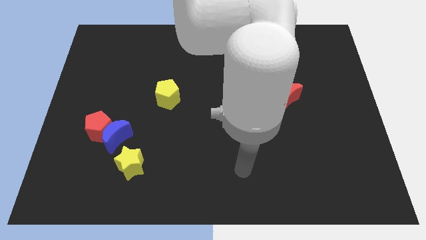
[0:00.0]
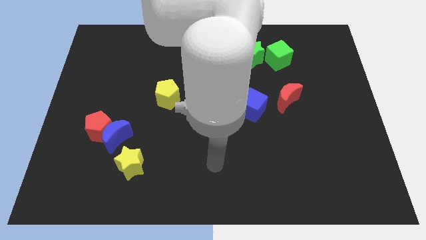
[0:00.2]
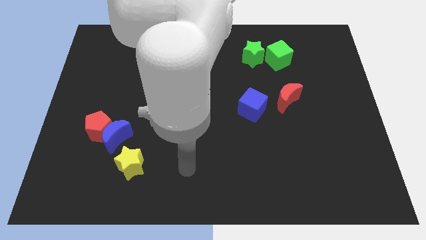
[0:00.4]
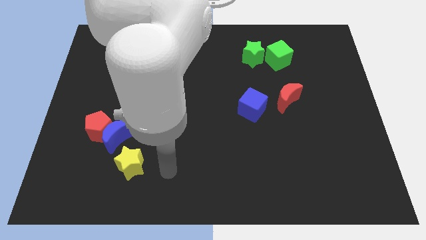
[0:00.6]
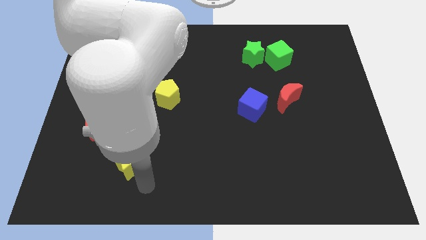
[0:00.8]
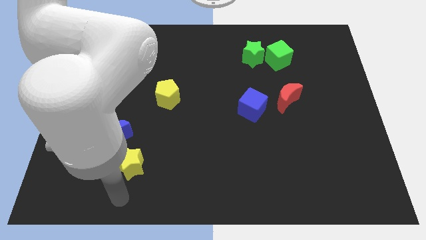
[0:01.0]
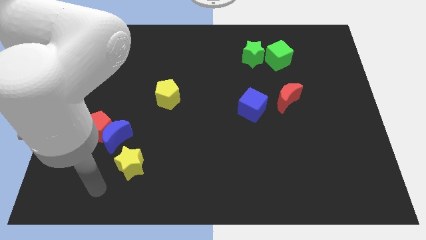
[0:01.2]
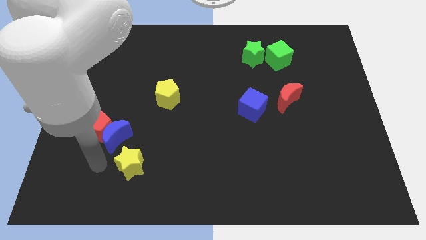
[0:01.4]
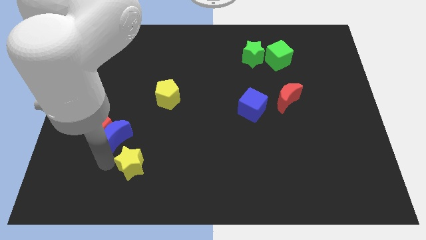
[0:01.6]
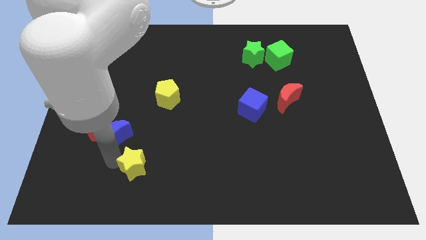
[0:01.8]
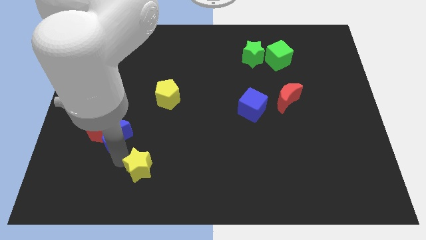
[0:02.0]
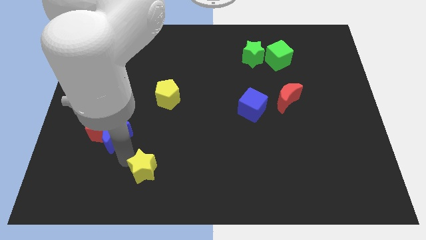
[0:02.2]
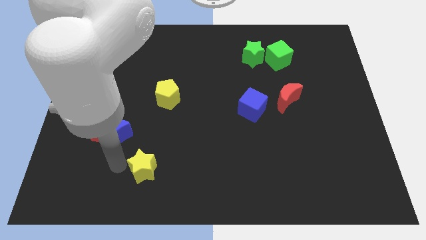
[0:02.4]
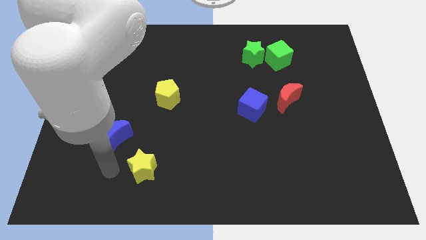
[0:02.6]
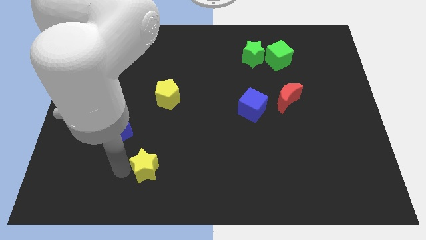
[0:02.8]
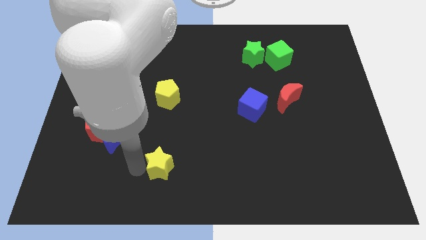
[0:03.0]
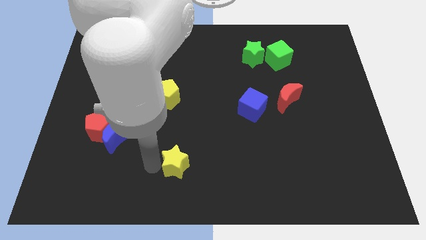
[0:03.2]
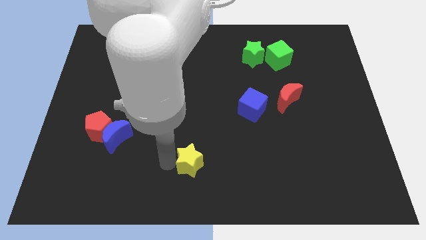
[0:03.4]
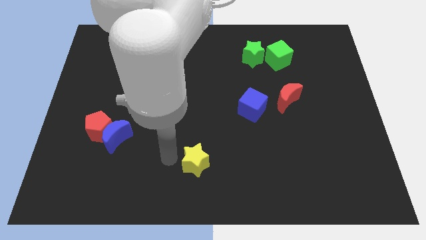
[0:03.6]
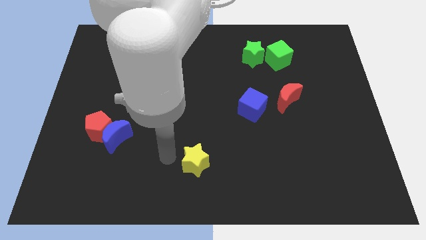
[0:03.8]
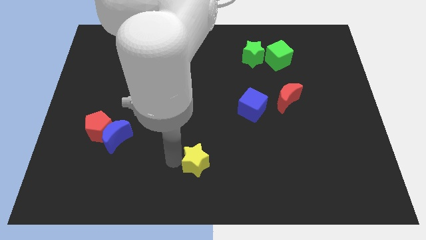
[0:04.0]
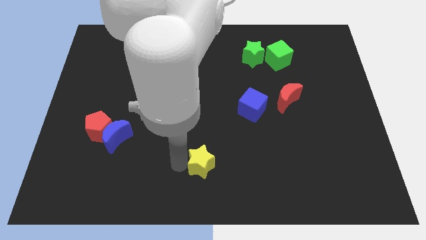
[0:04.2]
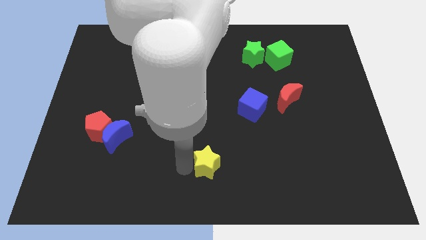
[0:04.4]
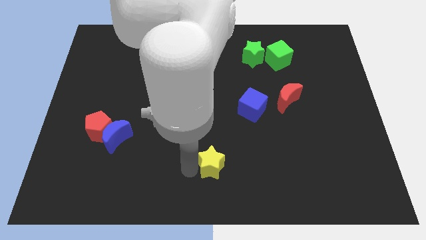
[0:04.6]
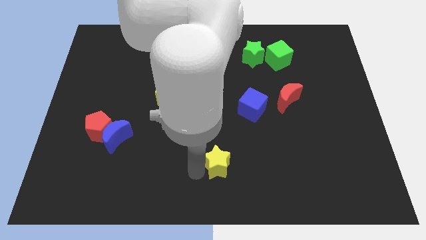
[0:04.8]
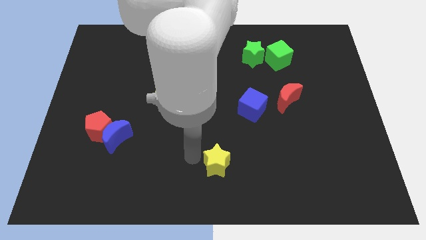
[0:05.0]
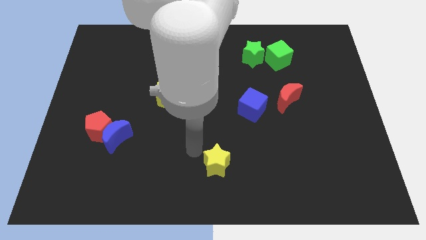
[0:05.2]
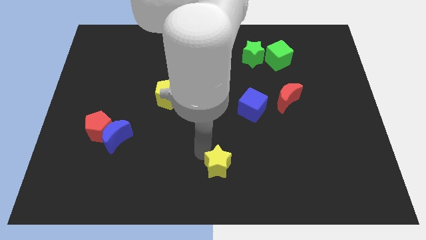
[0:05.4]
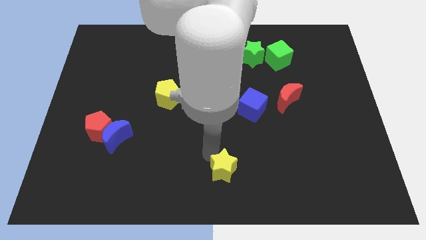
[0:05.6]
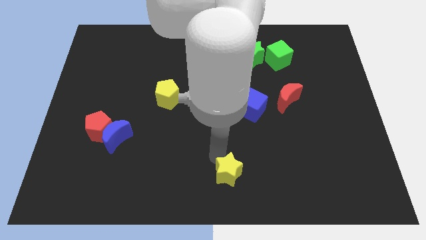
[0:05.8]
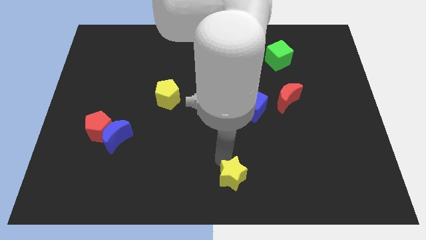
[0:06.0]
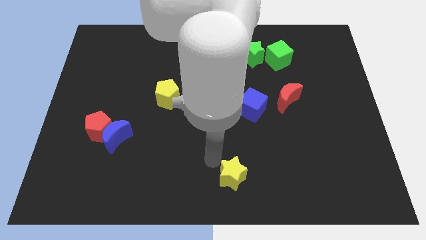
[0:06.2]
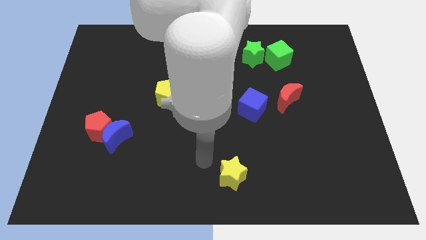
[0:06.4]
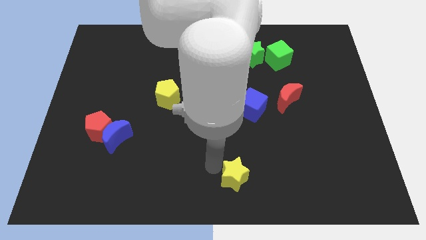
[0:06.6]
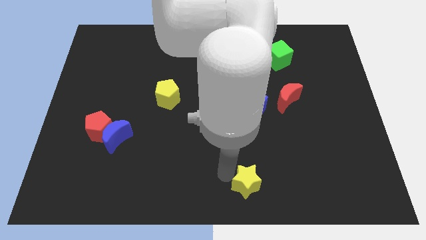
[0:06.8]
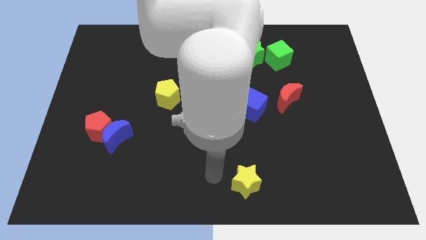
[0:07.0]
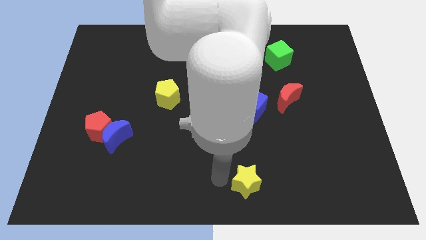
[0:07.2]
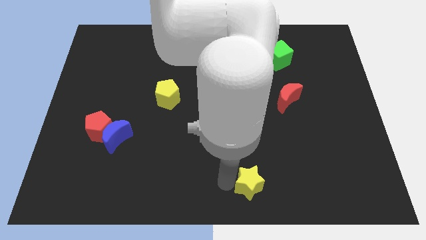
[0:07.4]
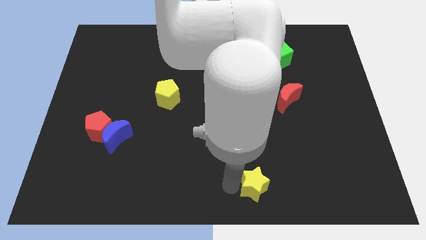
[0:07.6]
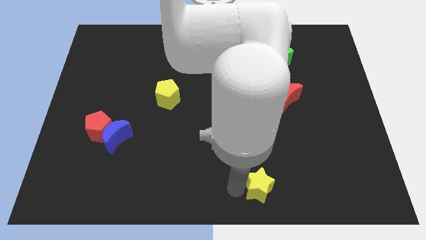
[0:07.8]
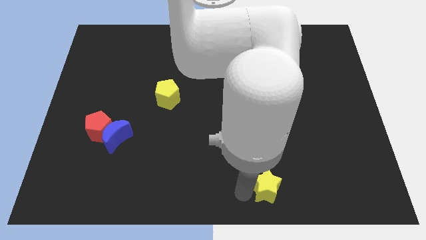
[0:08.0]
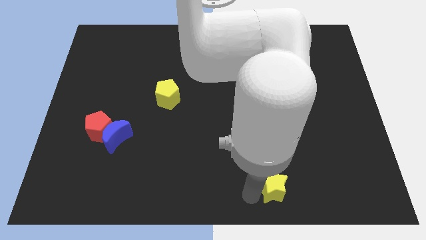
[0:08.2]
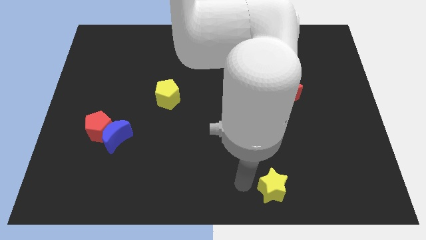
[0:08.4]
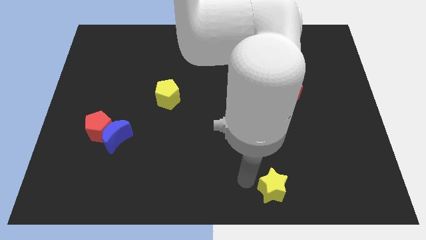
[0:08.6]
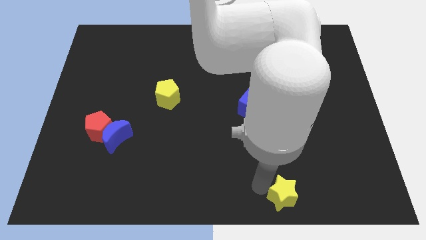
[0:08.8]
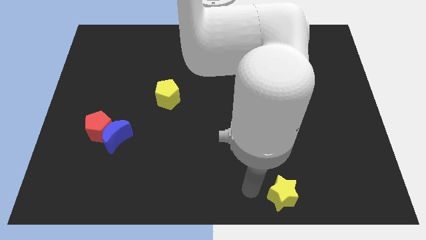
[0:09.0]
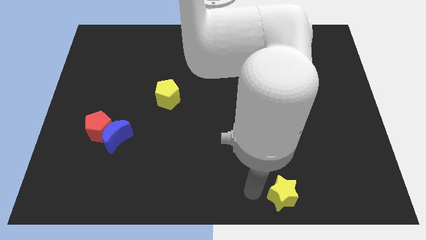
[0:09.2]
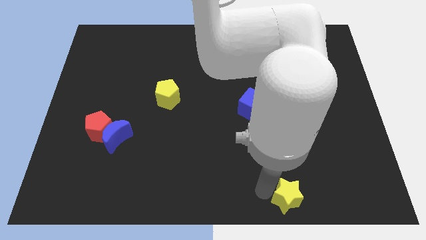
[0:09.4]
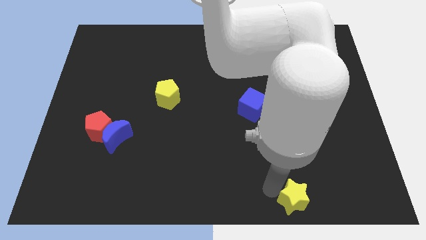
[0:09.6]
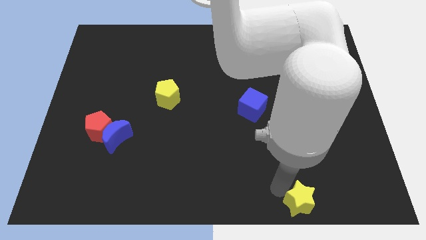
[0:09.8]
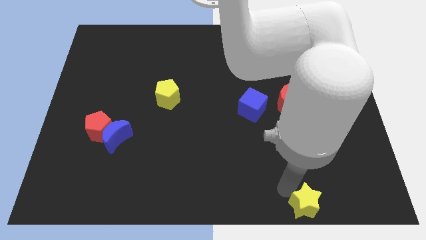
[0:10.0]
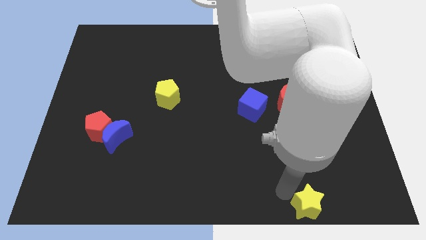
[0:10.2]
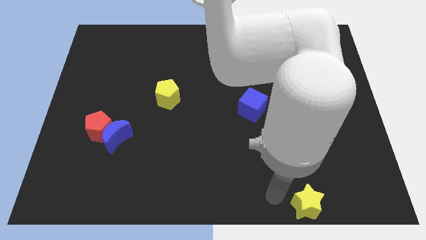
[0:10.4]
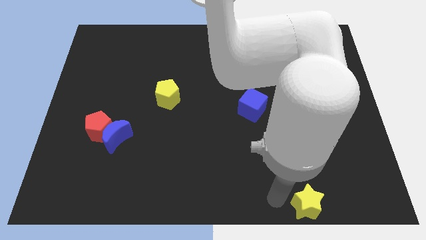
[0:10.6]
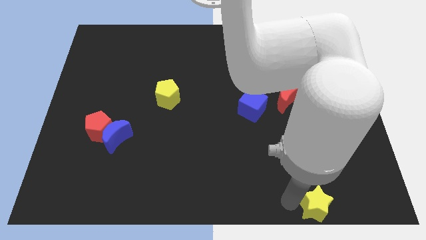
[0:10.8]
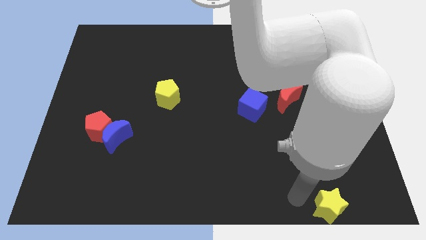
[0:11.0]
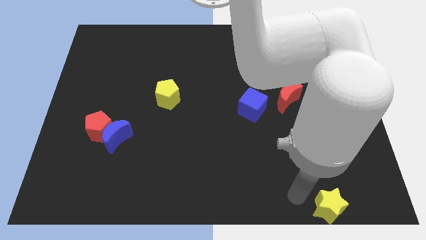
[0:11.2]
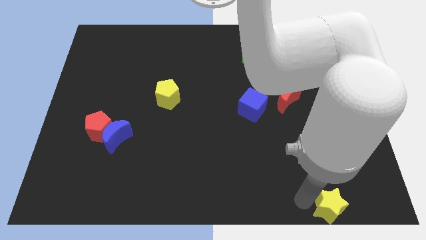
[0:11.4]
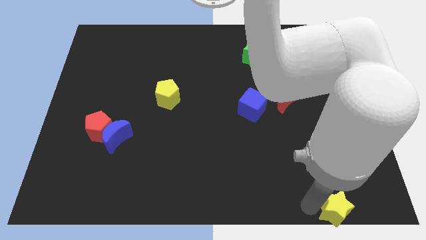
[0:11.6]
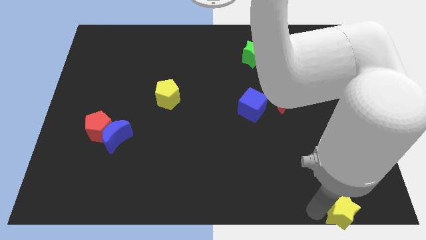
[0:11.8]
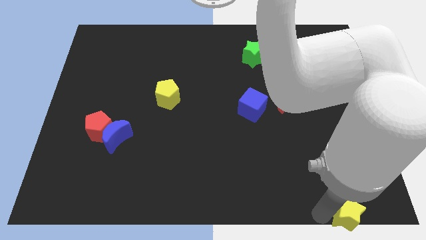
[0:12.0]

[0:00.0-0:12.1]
move the yellow star to the bottom right corner

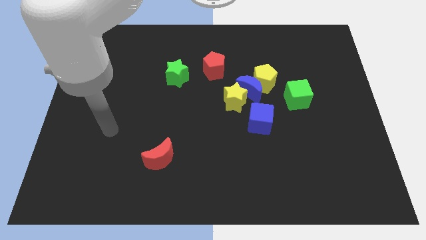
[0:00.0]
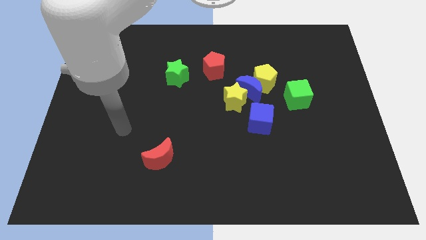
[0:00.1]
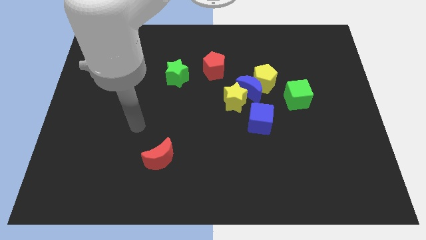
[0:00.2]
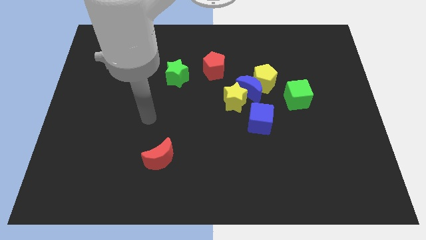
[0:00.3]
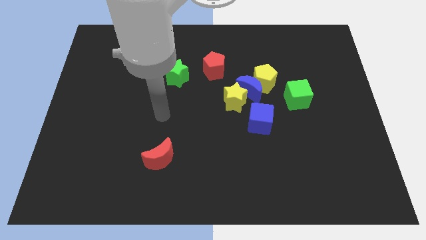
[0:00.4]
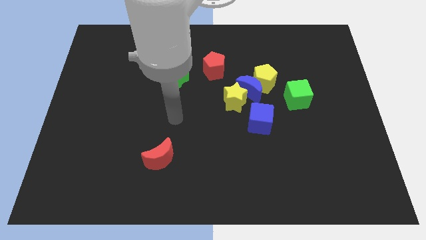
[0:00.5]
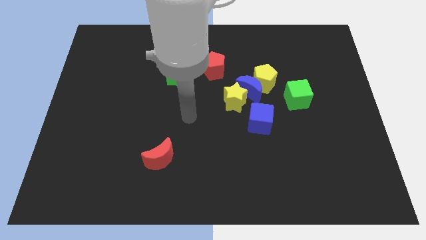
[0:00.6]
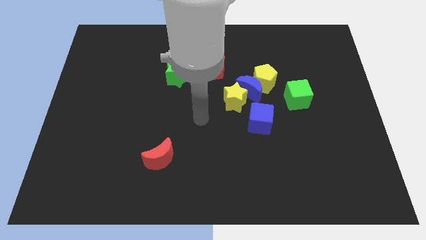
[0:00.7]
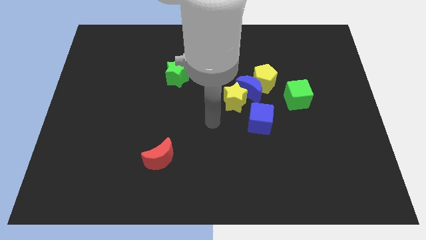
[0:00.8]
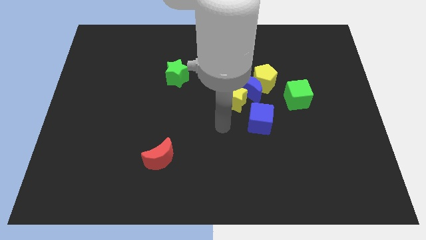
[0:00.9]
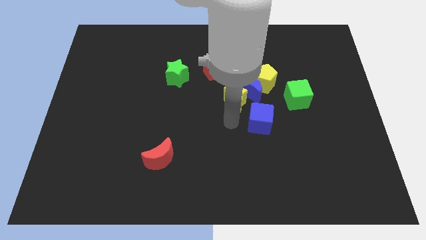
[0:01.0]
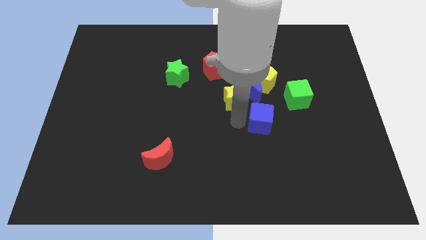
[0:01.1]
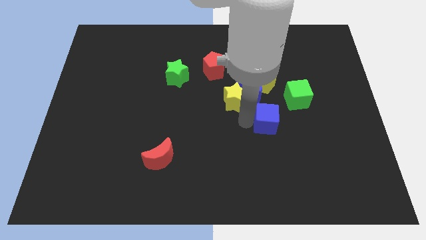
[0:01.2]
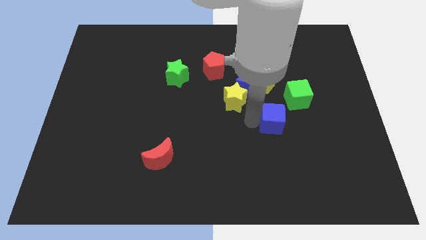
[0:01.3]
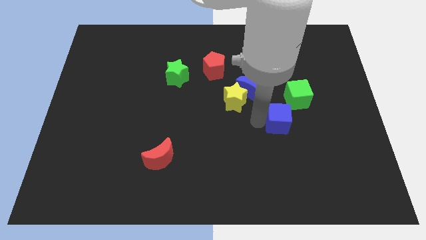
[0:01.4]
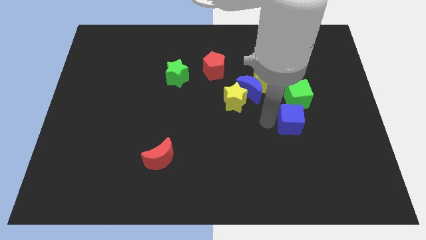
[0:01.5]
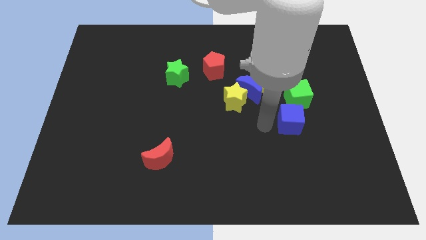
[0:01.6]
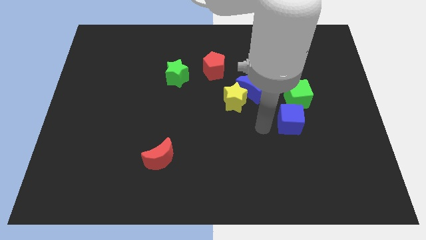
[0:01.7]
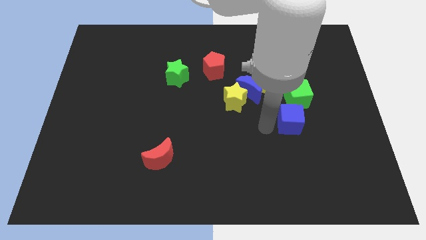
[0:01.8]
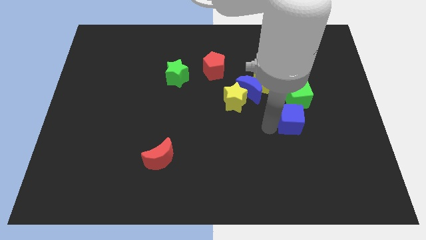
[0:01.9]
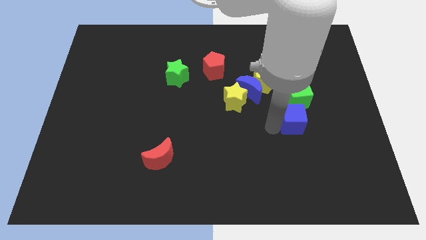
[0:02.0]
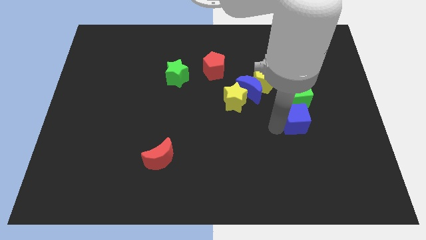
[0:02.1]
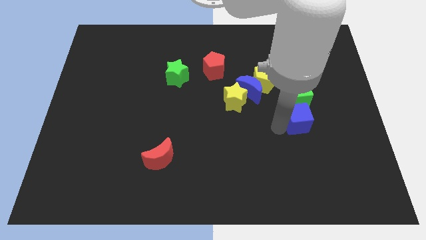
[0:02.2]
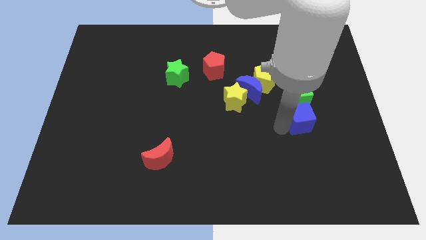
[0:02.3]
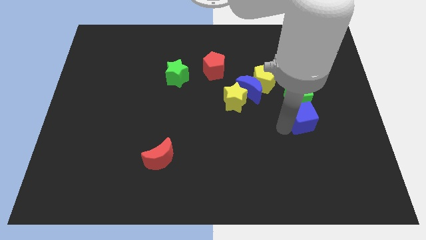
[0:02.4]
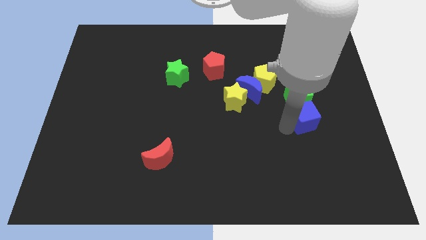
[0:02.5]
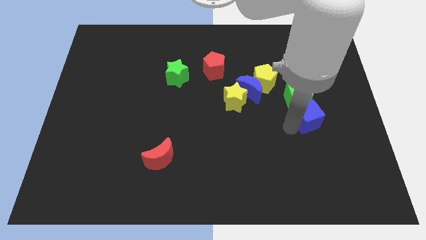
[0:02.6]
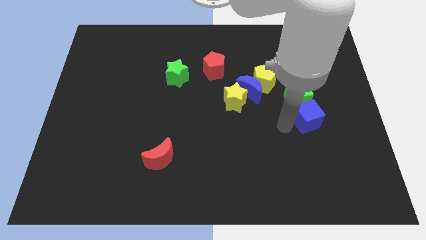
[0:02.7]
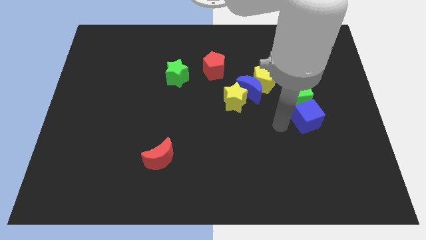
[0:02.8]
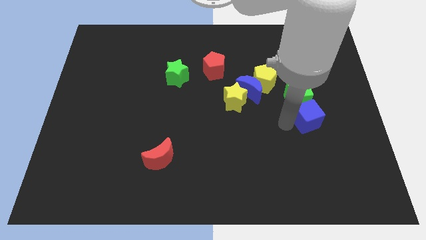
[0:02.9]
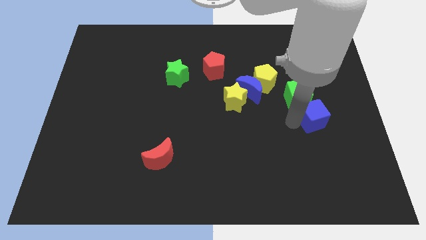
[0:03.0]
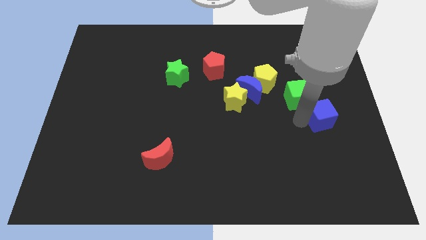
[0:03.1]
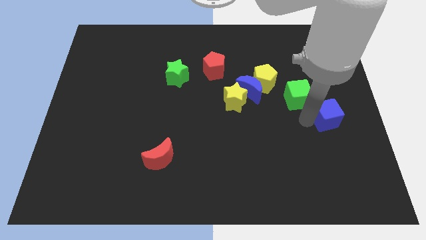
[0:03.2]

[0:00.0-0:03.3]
move the blue cube to the right side
